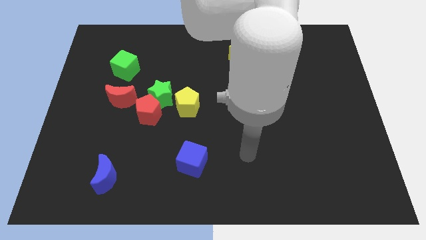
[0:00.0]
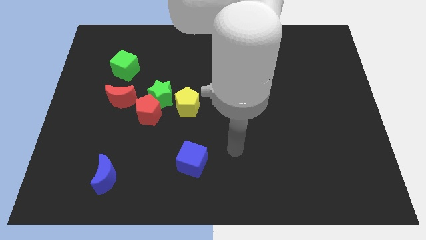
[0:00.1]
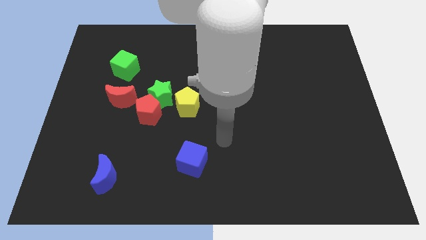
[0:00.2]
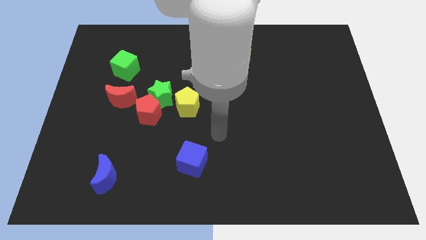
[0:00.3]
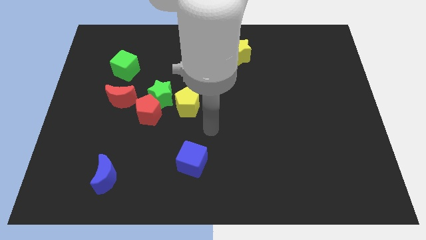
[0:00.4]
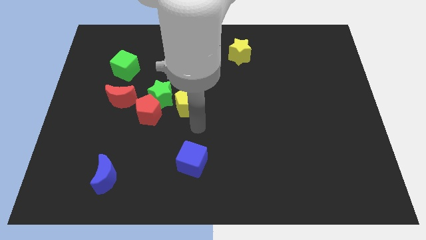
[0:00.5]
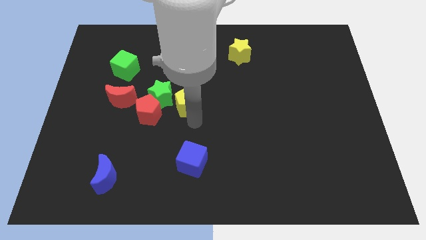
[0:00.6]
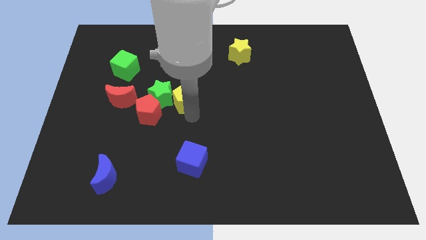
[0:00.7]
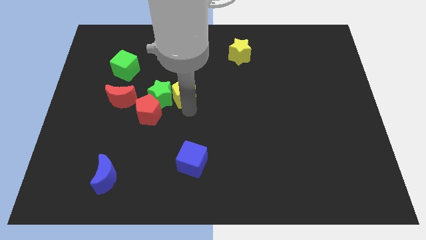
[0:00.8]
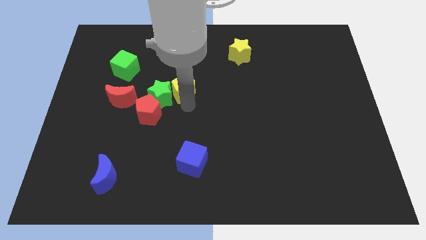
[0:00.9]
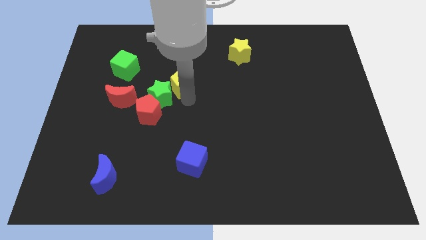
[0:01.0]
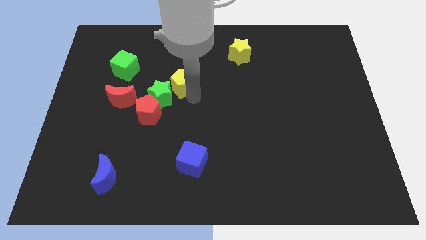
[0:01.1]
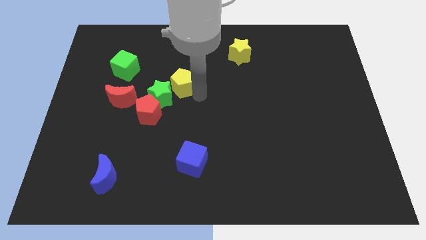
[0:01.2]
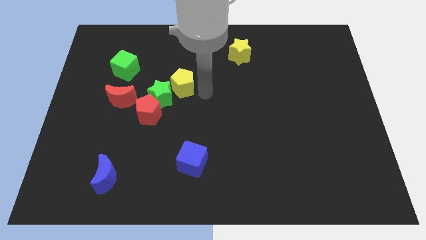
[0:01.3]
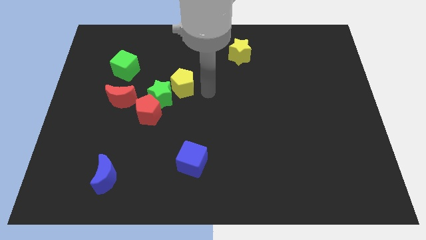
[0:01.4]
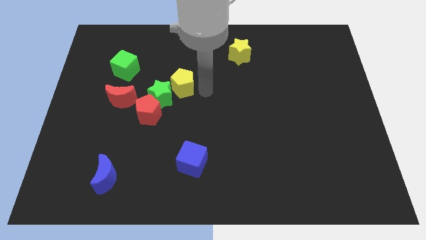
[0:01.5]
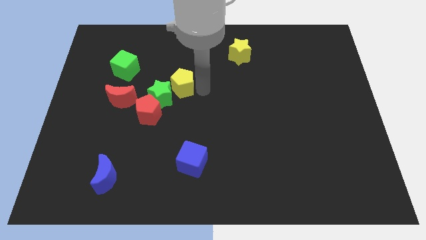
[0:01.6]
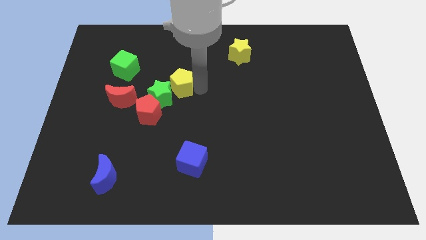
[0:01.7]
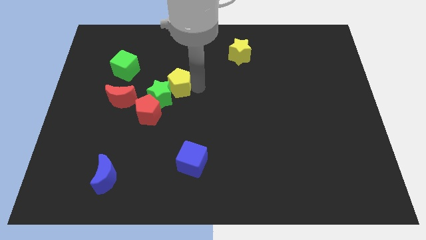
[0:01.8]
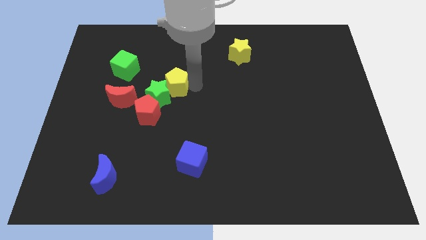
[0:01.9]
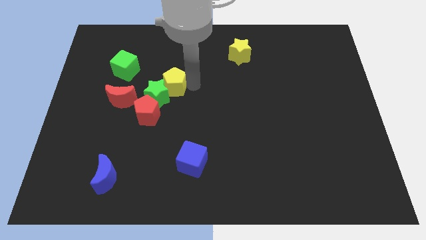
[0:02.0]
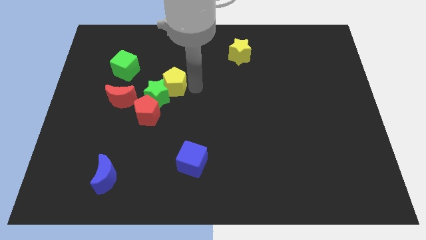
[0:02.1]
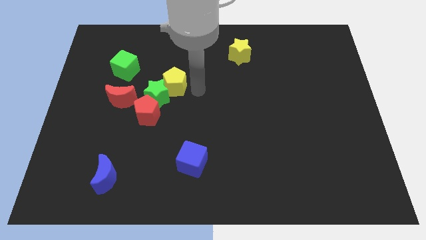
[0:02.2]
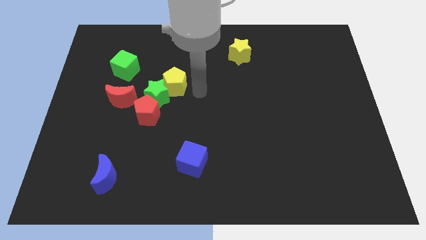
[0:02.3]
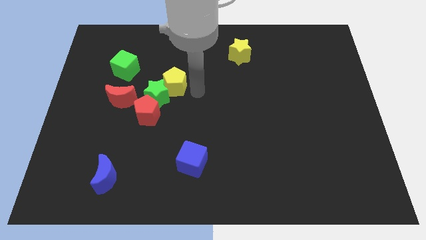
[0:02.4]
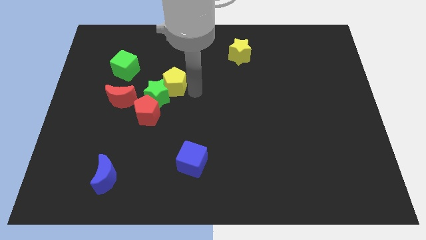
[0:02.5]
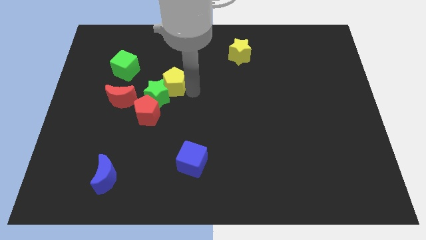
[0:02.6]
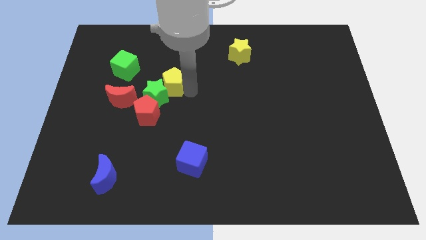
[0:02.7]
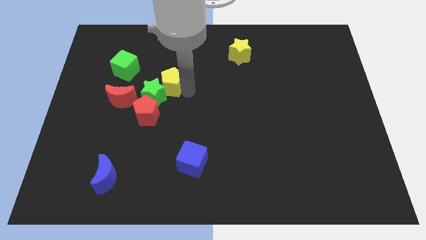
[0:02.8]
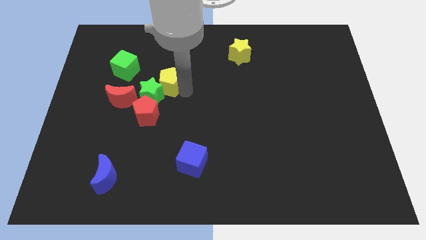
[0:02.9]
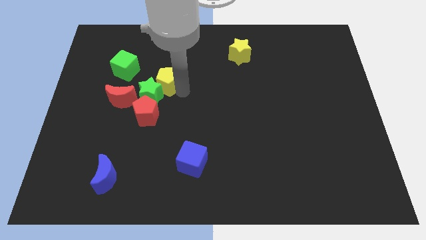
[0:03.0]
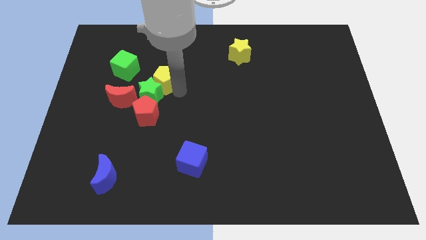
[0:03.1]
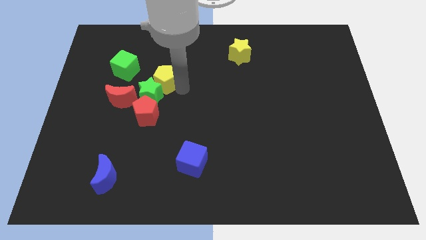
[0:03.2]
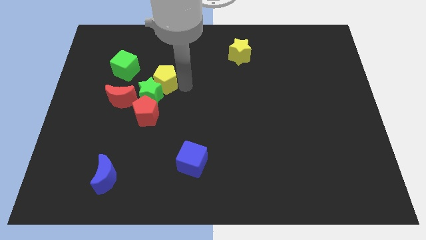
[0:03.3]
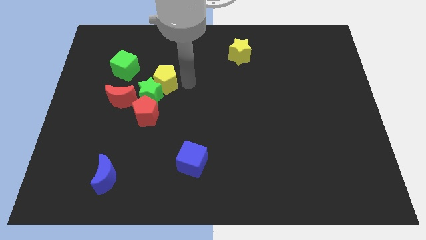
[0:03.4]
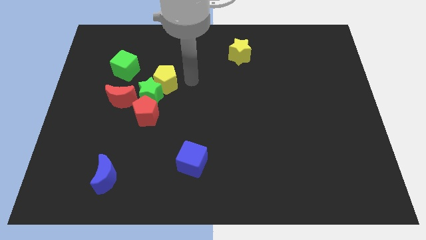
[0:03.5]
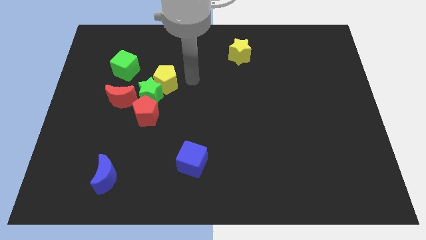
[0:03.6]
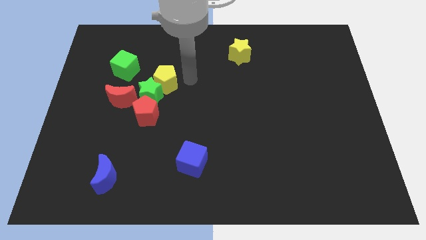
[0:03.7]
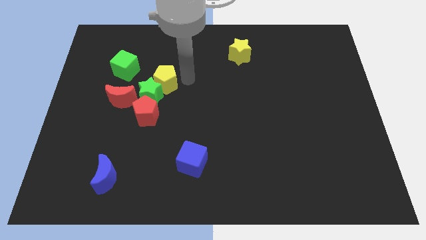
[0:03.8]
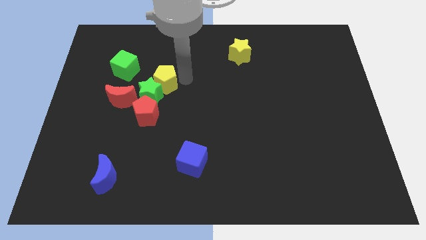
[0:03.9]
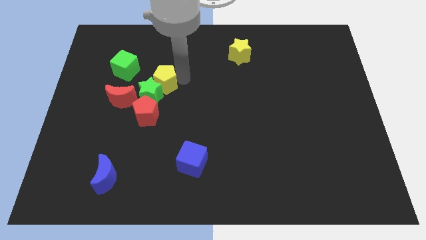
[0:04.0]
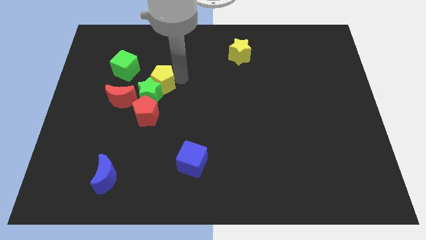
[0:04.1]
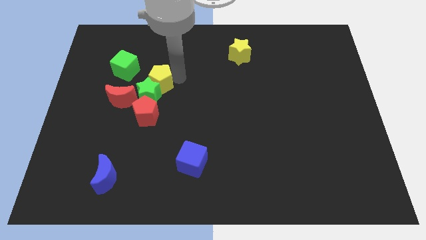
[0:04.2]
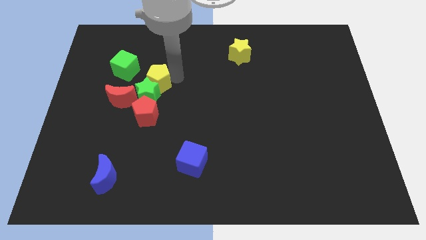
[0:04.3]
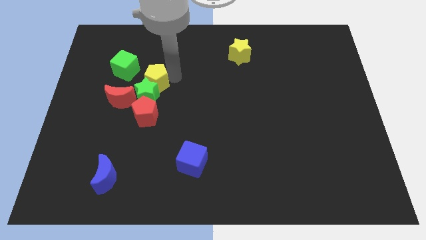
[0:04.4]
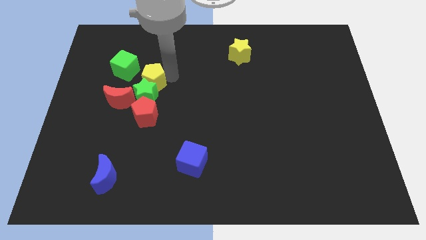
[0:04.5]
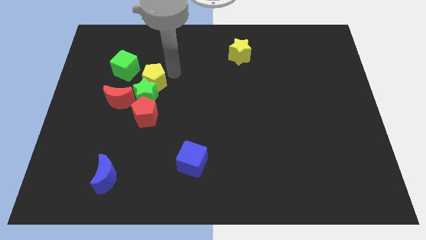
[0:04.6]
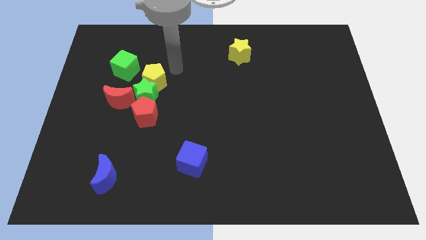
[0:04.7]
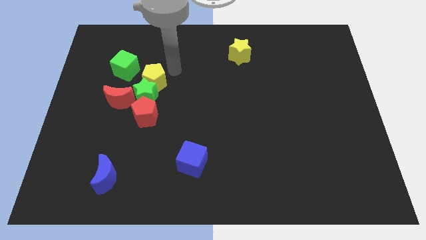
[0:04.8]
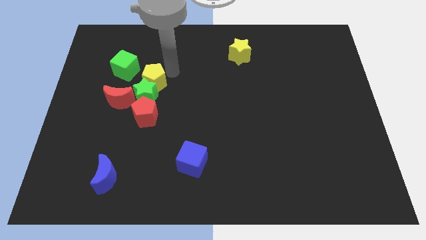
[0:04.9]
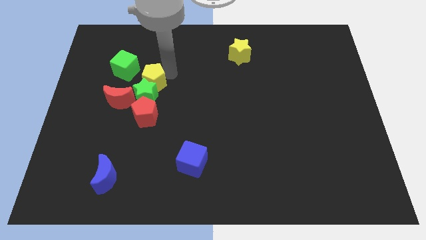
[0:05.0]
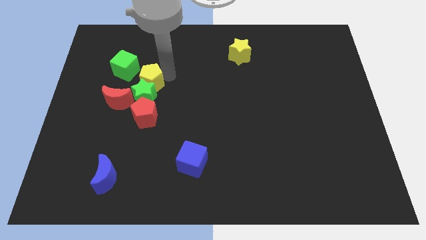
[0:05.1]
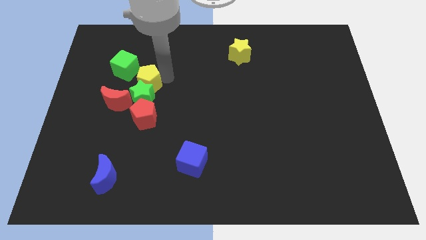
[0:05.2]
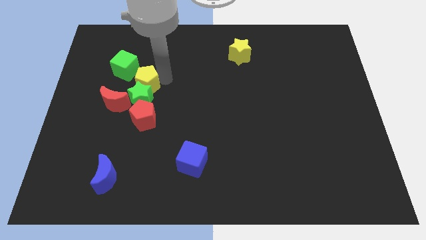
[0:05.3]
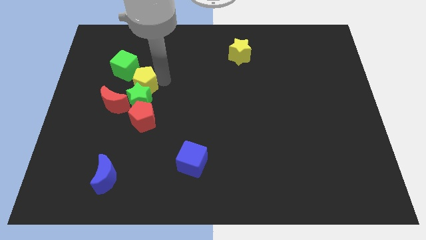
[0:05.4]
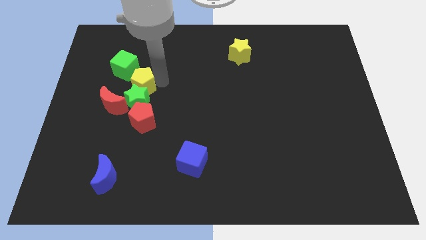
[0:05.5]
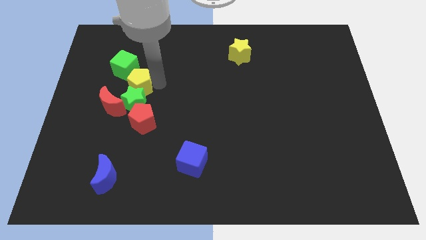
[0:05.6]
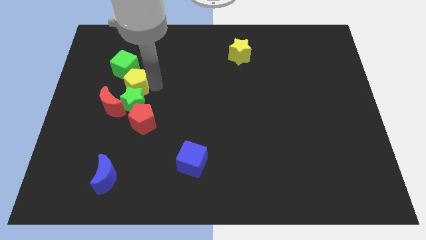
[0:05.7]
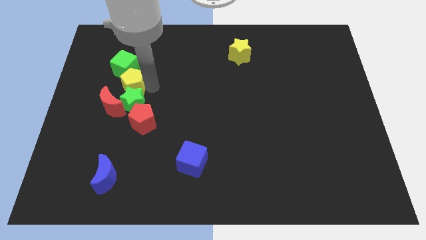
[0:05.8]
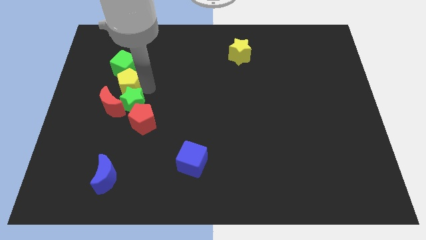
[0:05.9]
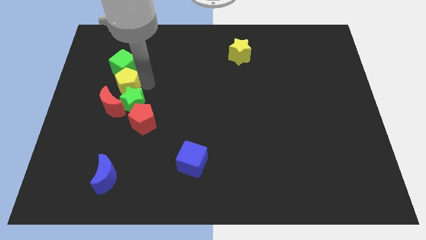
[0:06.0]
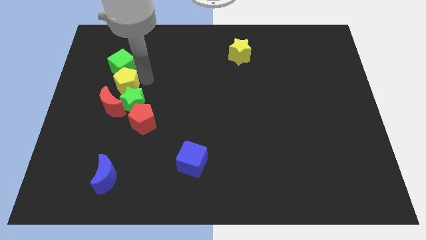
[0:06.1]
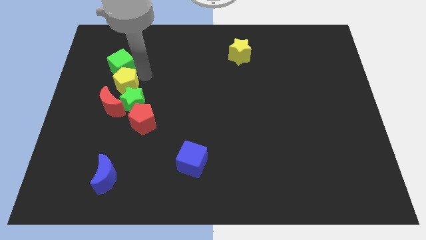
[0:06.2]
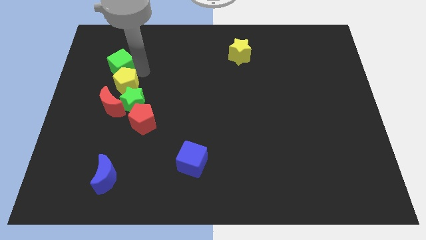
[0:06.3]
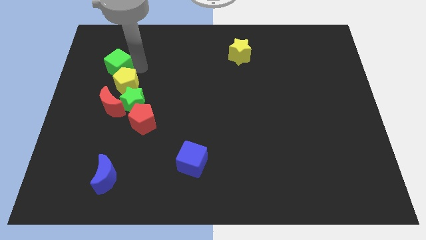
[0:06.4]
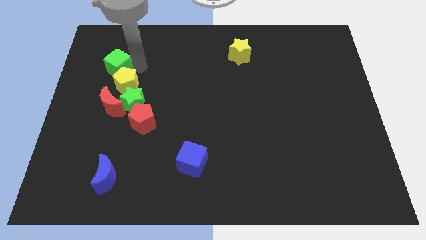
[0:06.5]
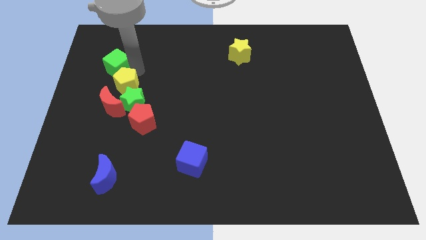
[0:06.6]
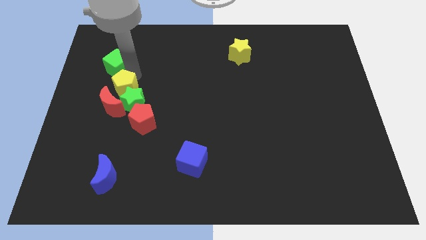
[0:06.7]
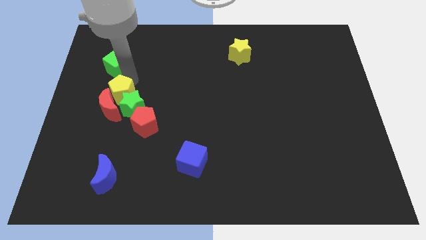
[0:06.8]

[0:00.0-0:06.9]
push the yellow pentagon close to the red moon
